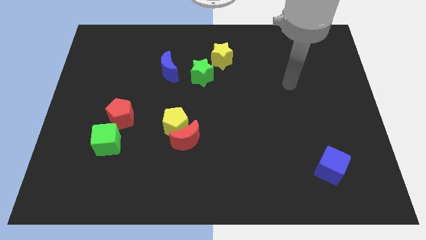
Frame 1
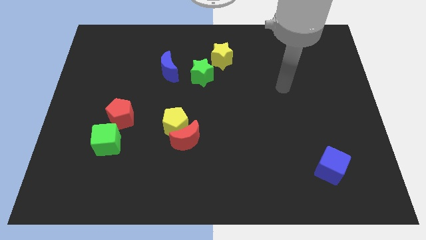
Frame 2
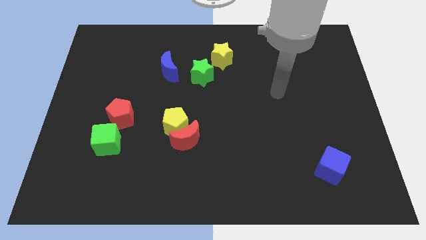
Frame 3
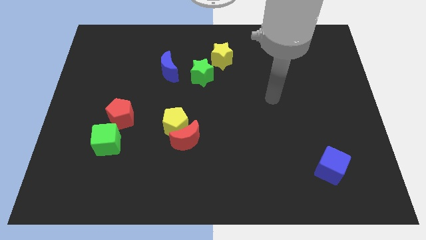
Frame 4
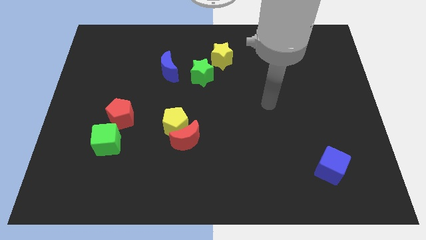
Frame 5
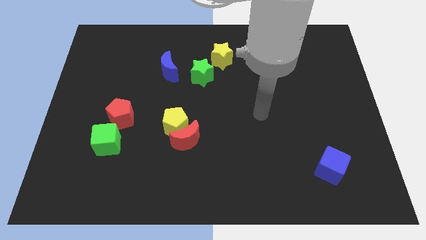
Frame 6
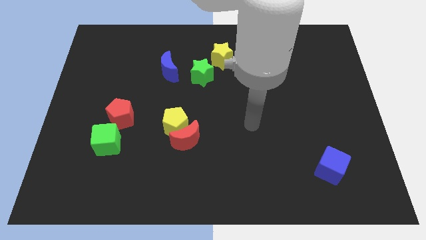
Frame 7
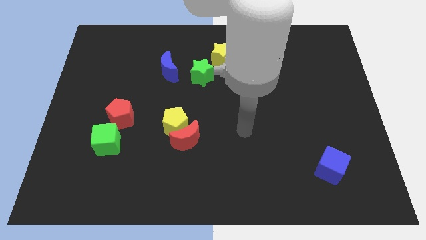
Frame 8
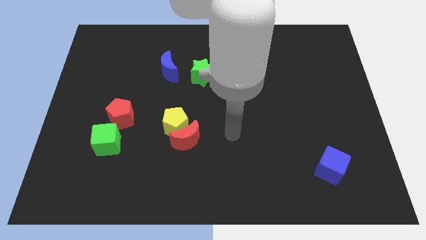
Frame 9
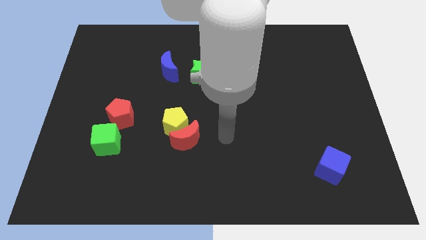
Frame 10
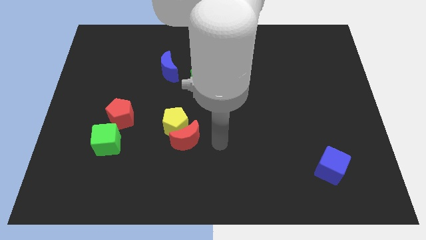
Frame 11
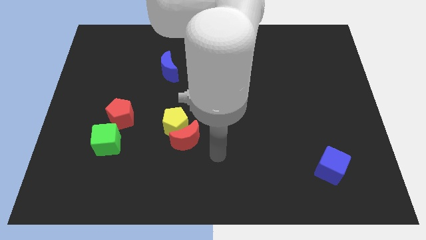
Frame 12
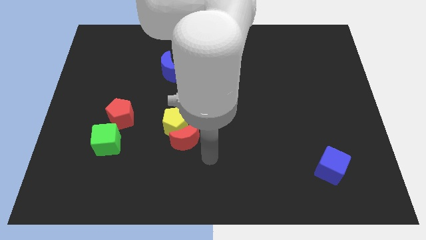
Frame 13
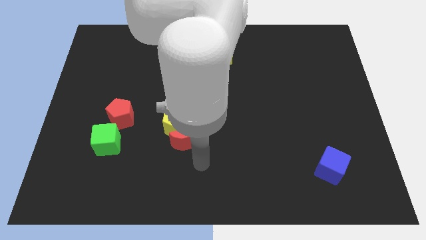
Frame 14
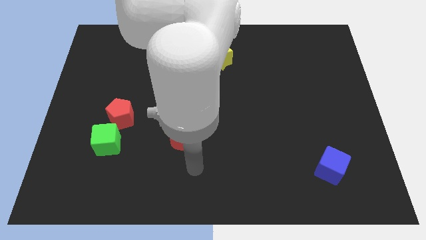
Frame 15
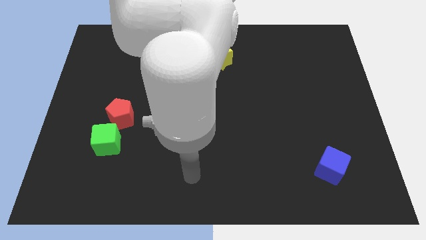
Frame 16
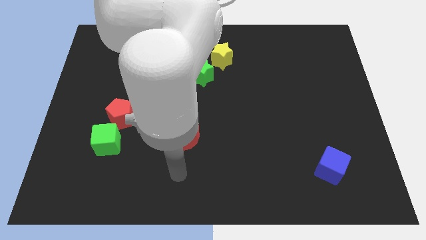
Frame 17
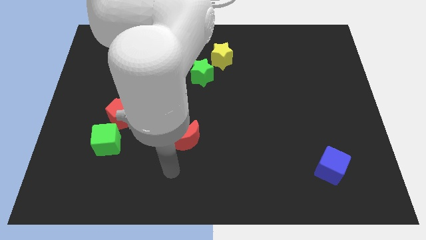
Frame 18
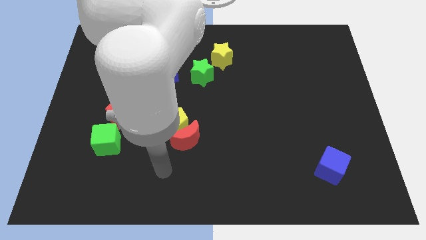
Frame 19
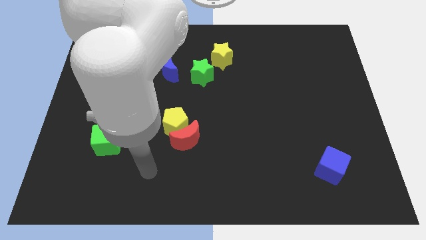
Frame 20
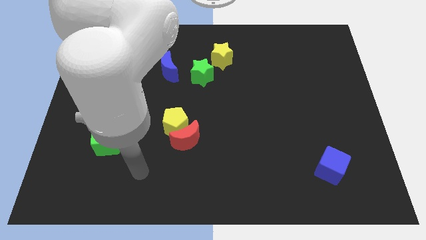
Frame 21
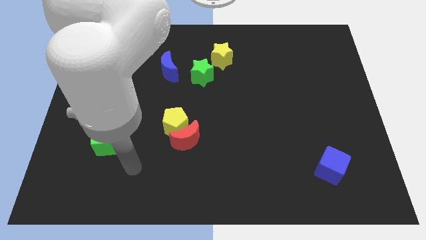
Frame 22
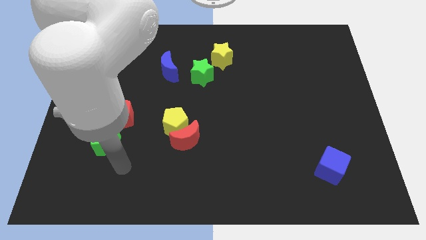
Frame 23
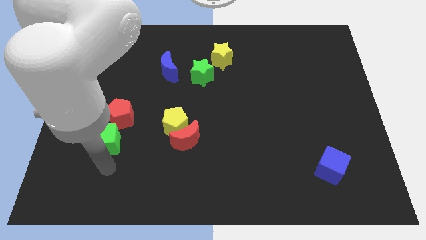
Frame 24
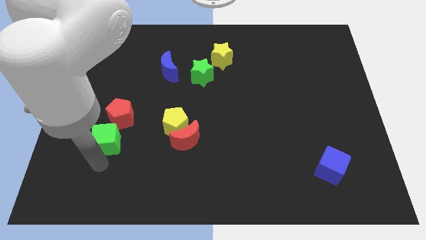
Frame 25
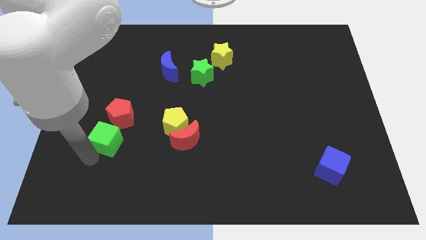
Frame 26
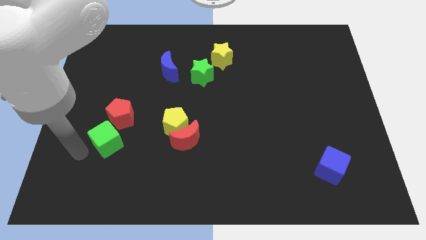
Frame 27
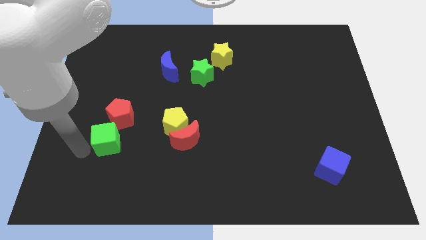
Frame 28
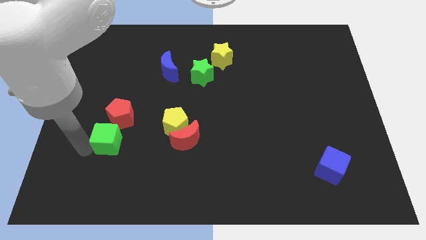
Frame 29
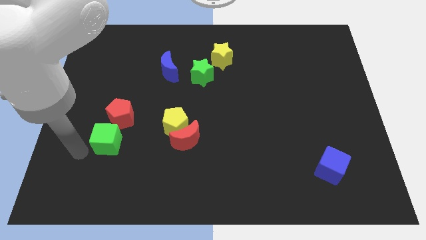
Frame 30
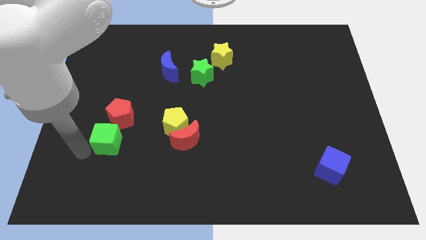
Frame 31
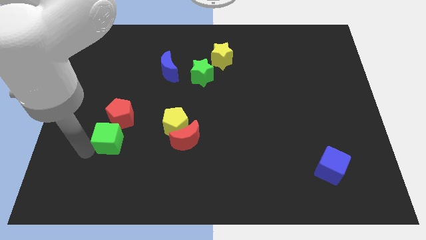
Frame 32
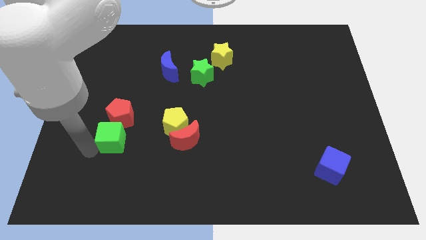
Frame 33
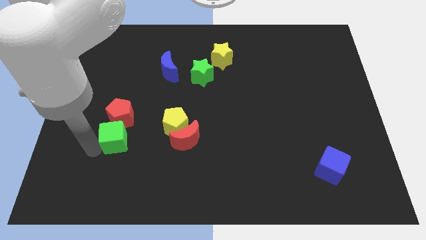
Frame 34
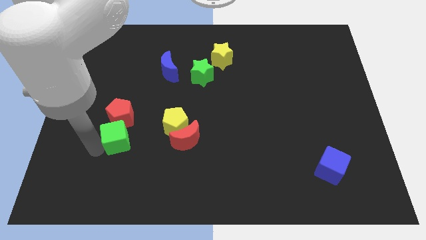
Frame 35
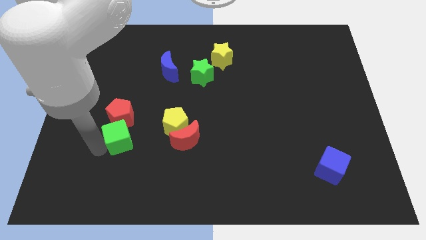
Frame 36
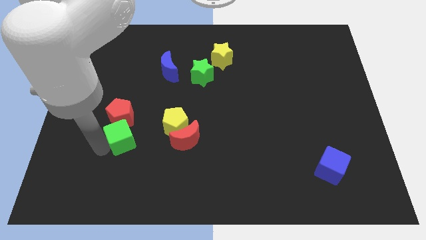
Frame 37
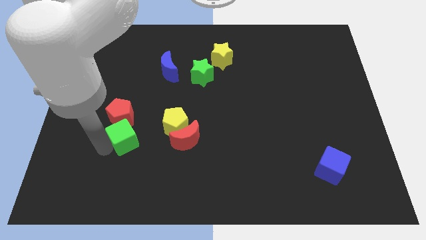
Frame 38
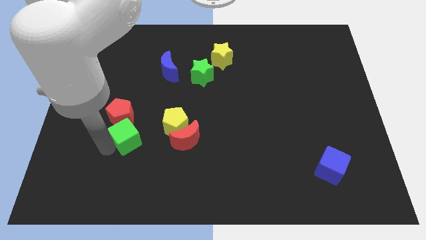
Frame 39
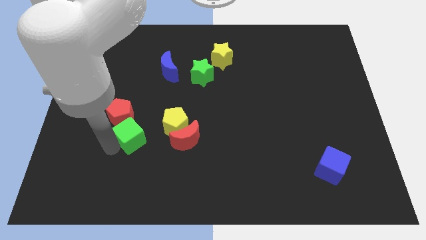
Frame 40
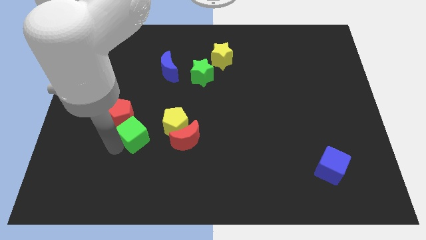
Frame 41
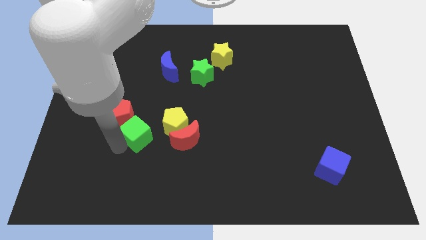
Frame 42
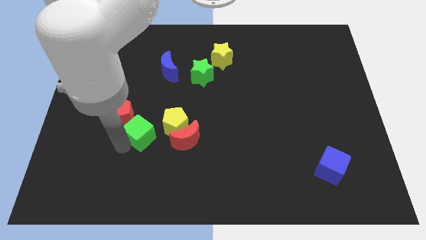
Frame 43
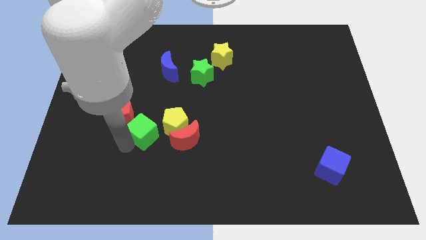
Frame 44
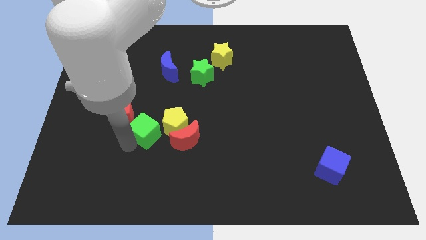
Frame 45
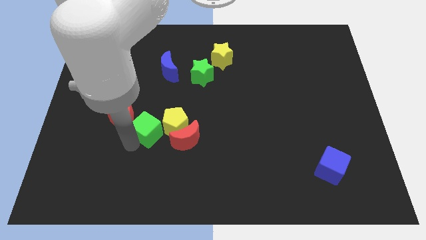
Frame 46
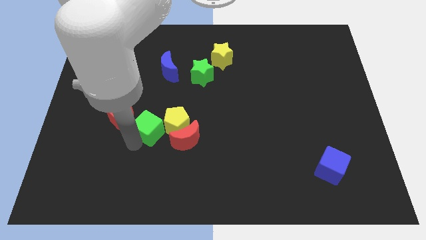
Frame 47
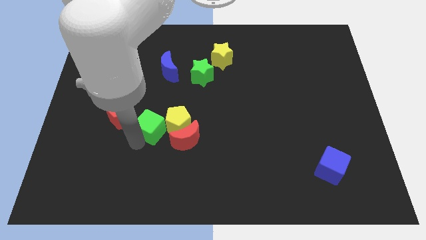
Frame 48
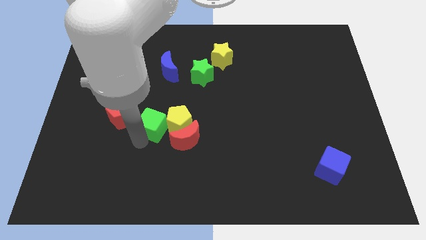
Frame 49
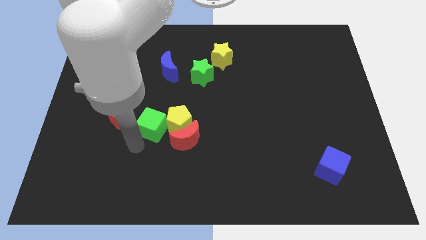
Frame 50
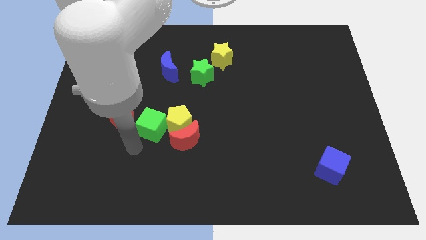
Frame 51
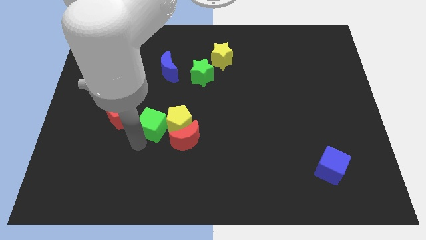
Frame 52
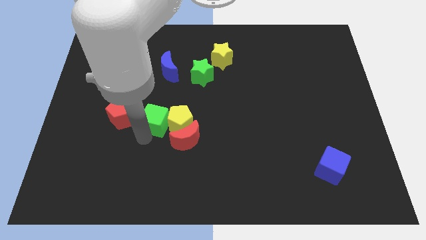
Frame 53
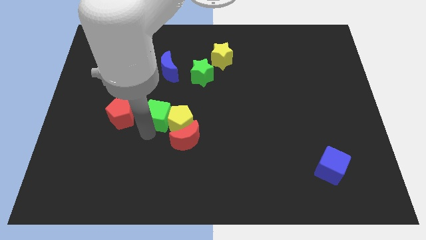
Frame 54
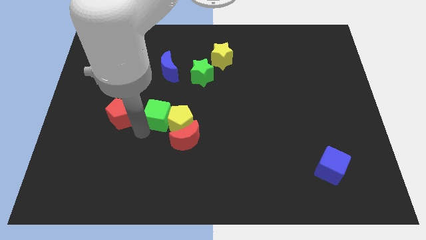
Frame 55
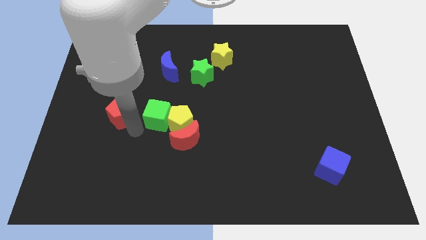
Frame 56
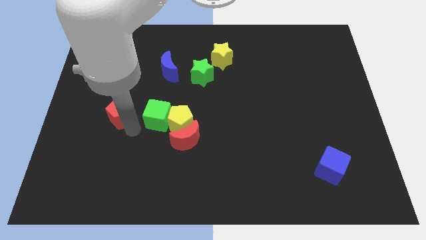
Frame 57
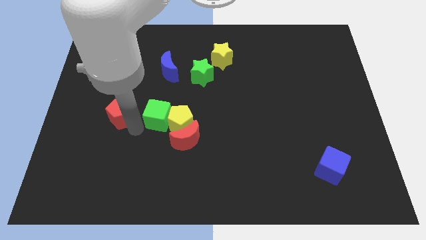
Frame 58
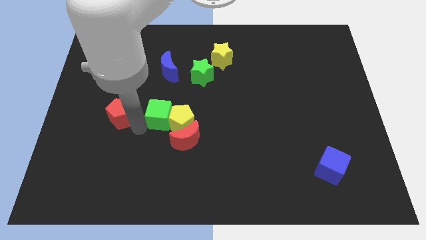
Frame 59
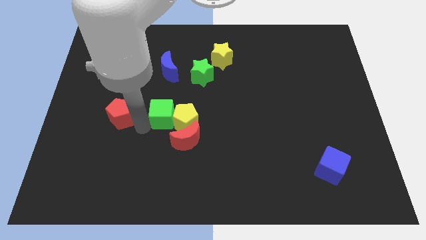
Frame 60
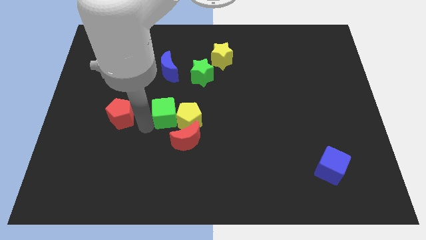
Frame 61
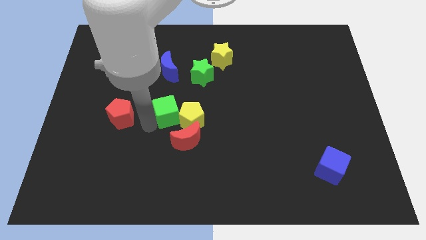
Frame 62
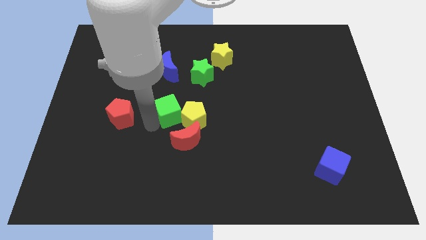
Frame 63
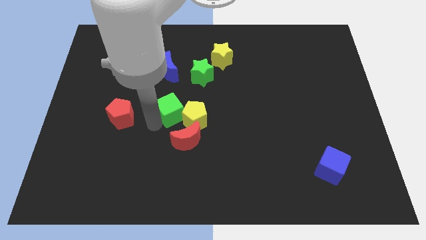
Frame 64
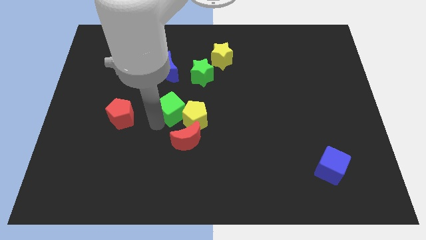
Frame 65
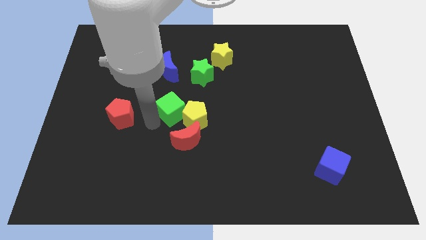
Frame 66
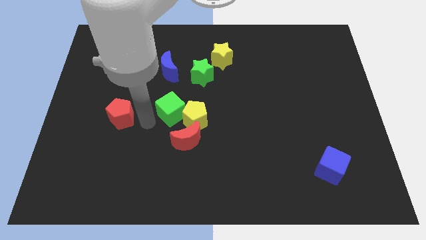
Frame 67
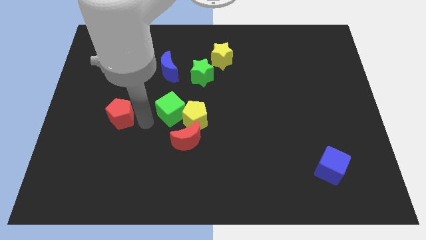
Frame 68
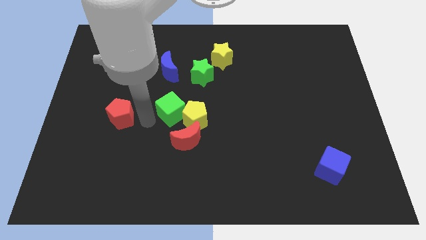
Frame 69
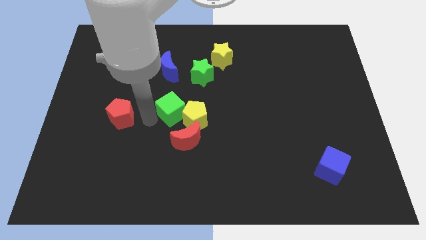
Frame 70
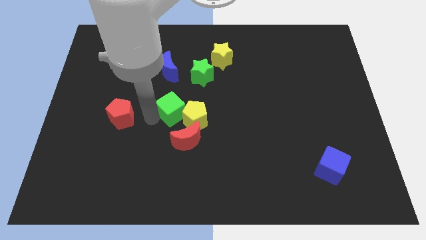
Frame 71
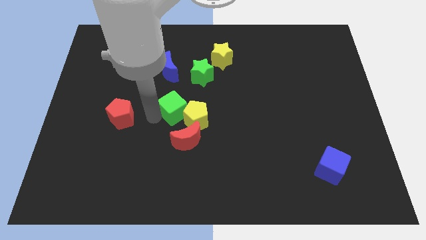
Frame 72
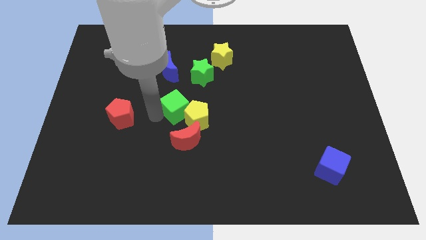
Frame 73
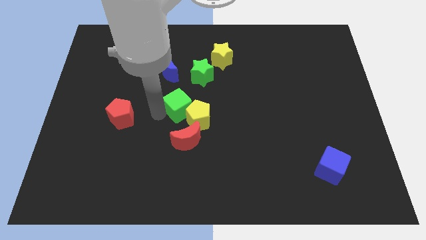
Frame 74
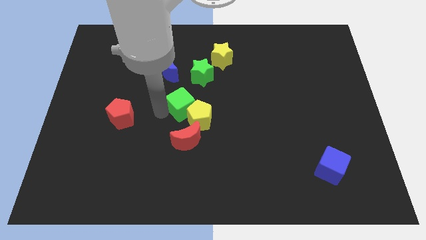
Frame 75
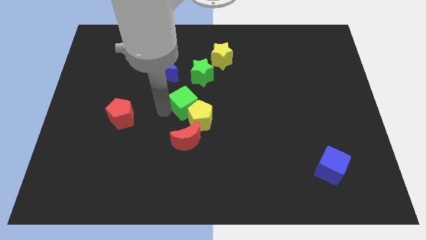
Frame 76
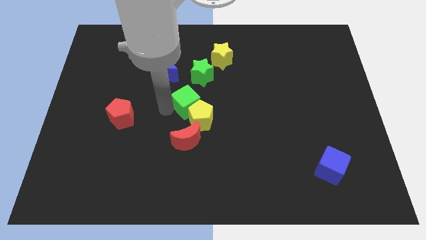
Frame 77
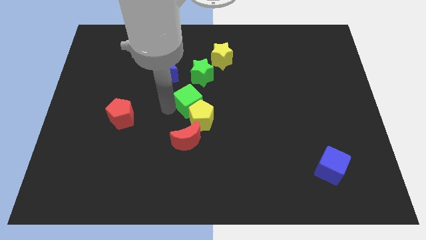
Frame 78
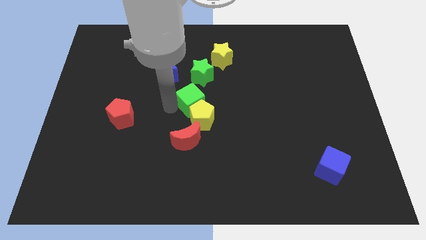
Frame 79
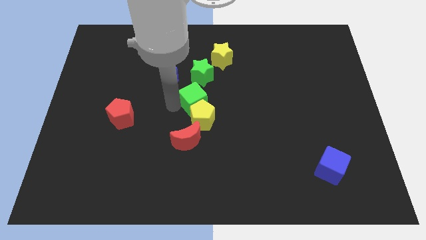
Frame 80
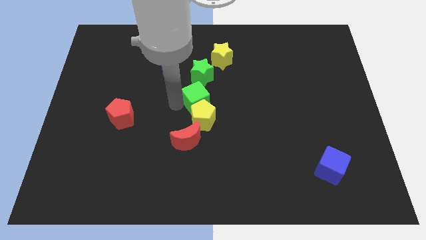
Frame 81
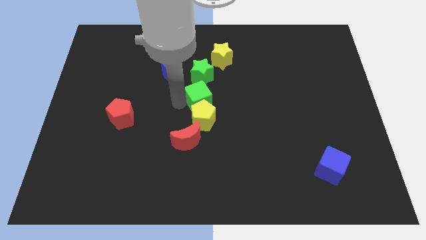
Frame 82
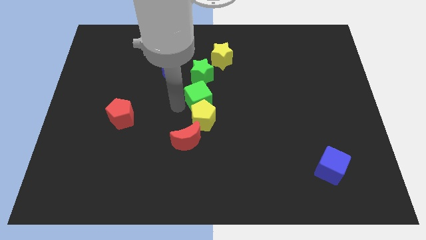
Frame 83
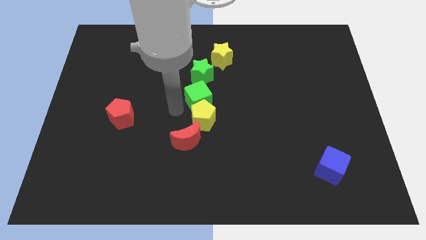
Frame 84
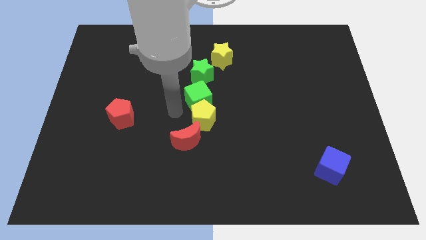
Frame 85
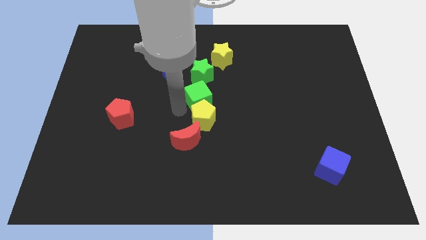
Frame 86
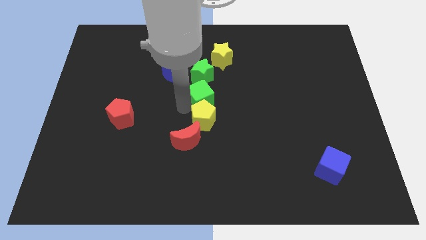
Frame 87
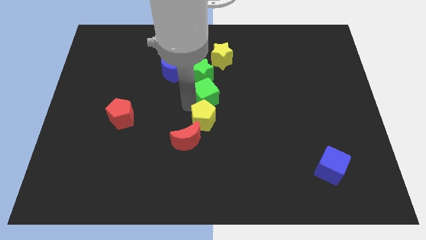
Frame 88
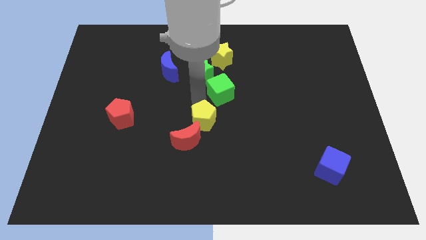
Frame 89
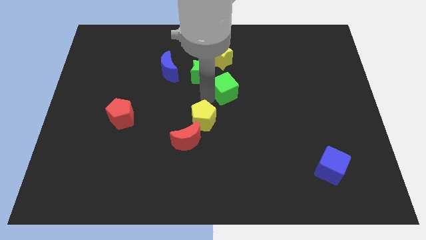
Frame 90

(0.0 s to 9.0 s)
slide the green cube just right of the green star
